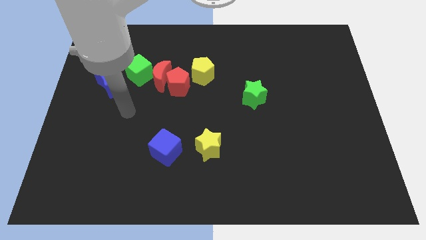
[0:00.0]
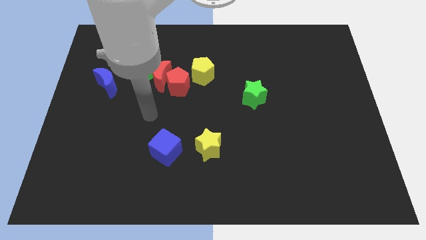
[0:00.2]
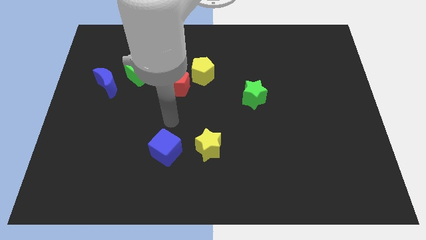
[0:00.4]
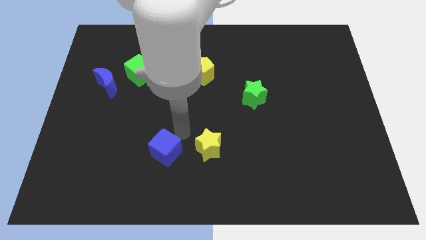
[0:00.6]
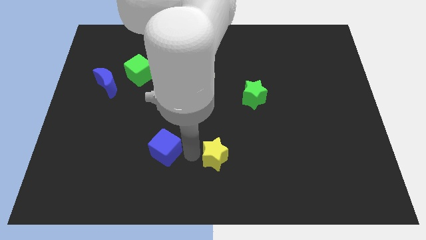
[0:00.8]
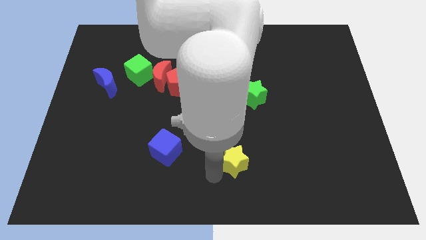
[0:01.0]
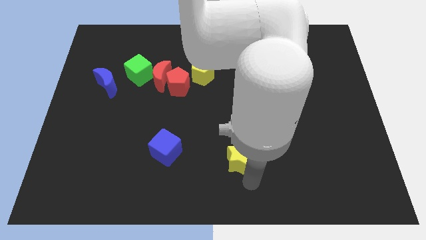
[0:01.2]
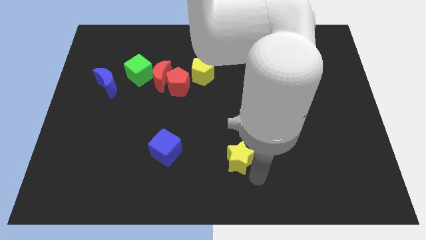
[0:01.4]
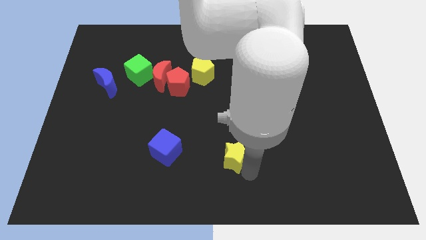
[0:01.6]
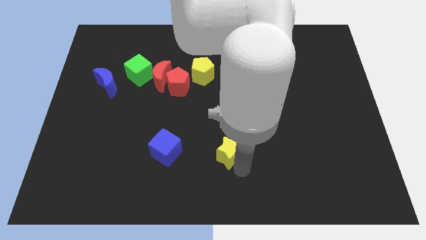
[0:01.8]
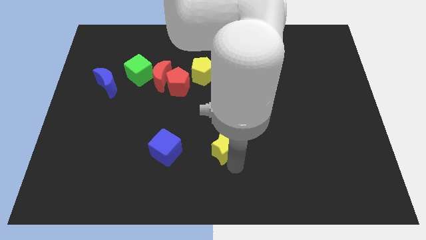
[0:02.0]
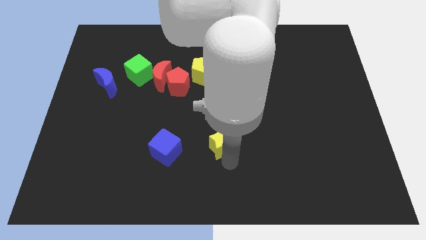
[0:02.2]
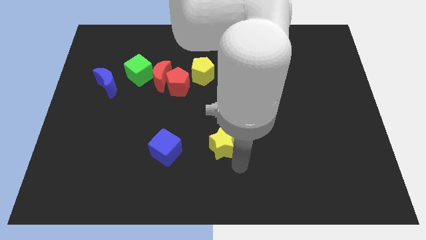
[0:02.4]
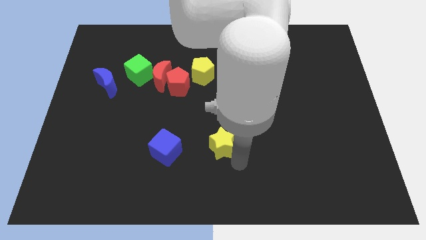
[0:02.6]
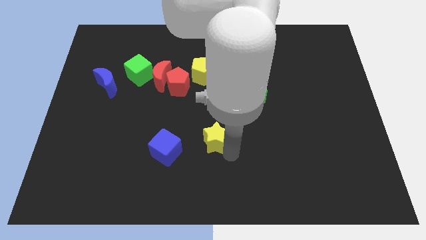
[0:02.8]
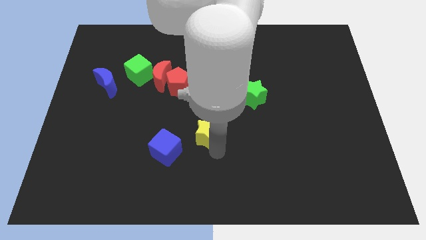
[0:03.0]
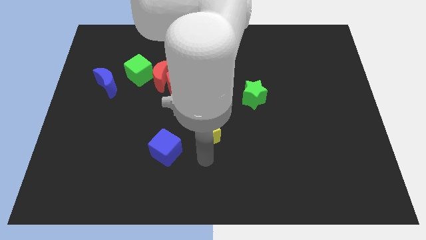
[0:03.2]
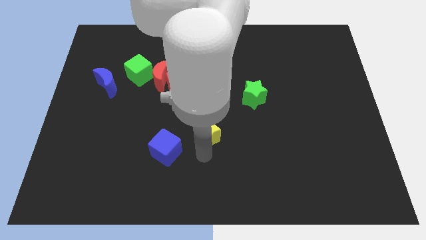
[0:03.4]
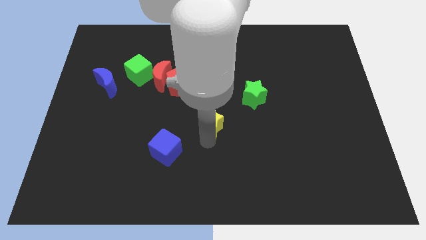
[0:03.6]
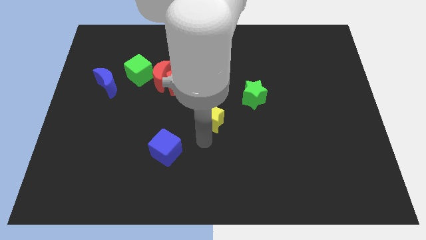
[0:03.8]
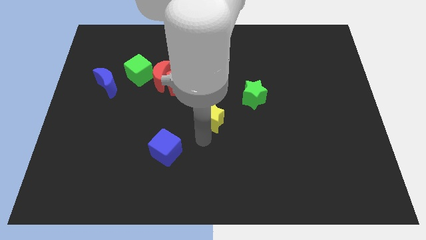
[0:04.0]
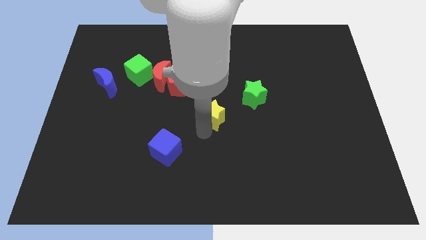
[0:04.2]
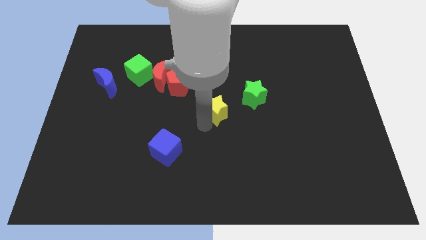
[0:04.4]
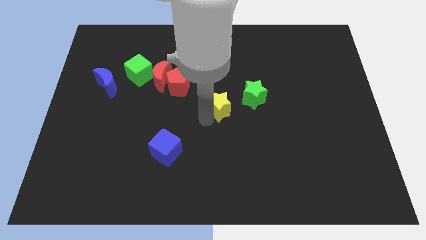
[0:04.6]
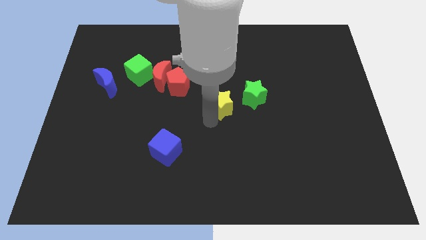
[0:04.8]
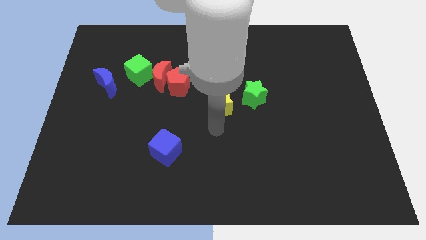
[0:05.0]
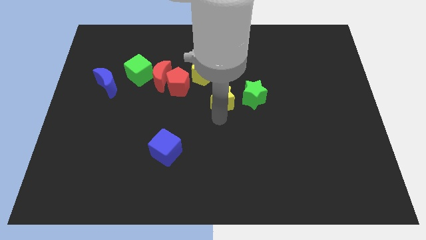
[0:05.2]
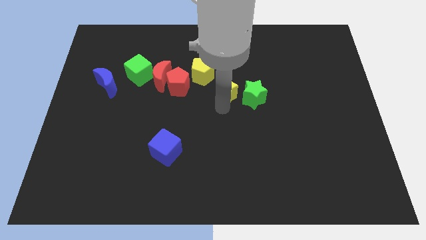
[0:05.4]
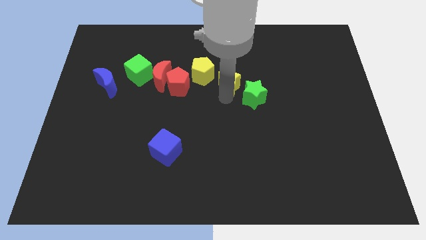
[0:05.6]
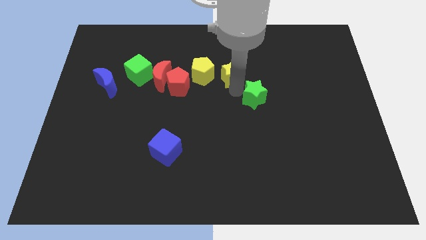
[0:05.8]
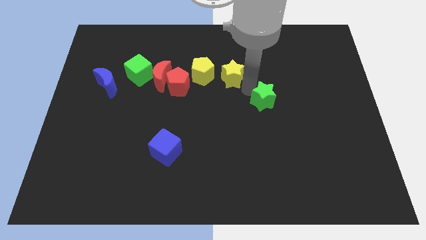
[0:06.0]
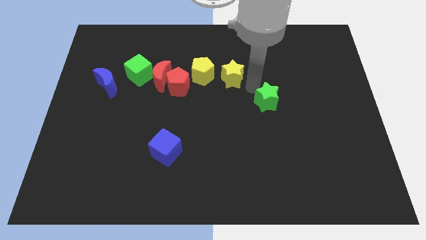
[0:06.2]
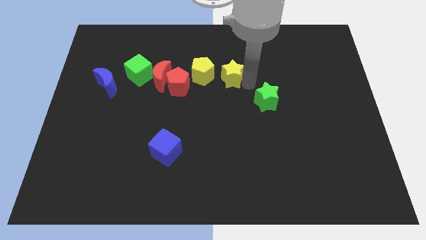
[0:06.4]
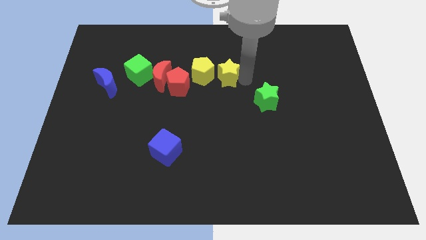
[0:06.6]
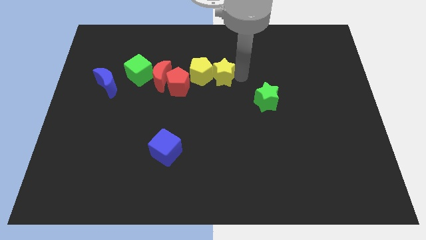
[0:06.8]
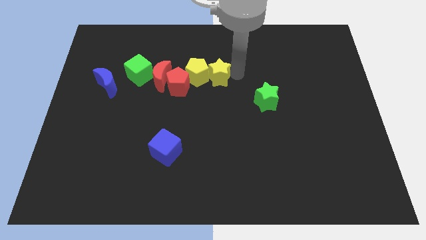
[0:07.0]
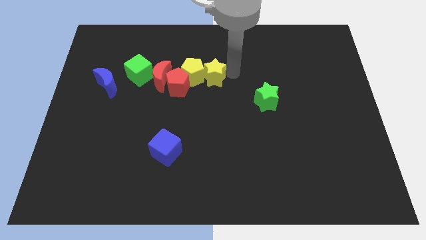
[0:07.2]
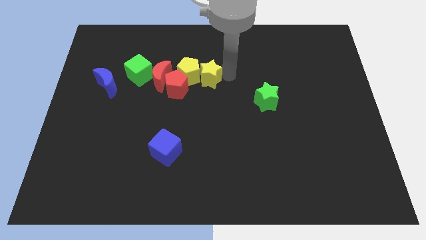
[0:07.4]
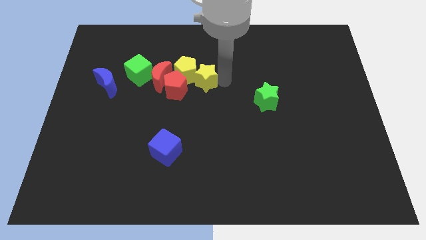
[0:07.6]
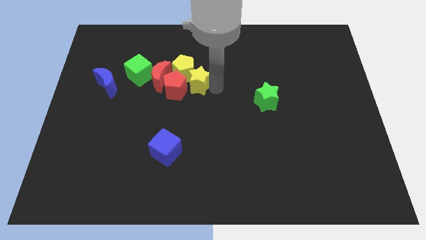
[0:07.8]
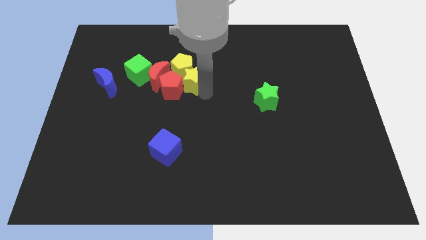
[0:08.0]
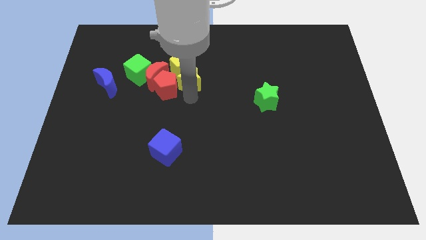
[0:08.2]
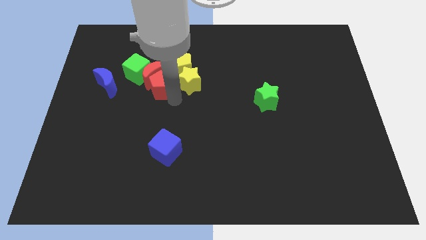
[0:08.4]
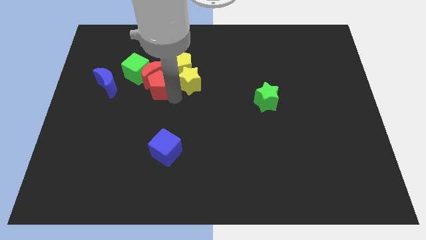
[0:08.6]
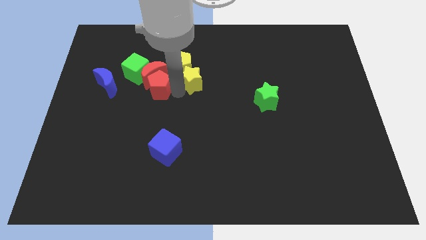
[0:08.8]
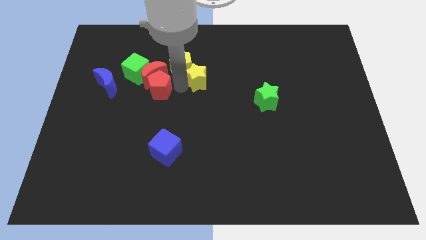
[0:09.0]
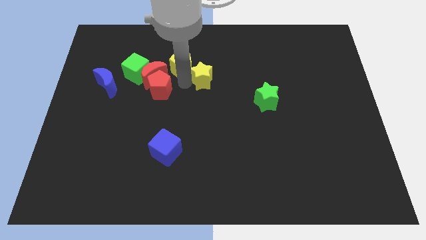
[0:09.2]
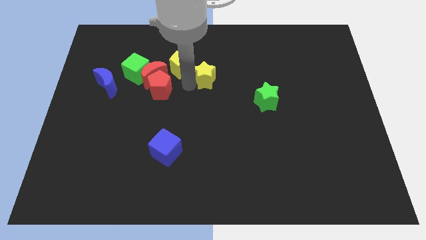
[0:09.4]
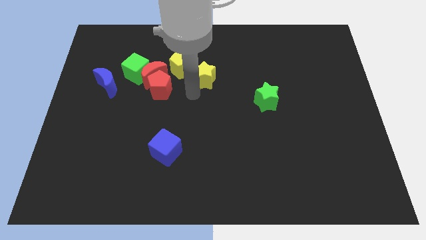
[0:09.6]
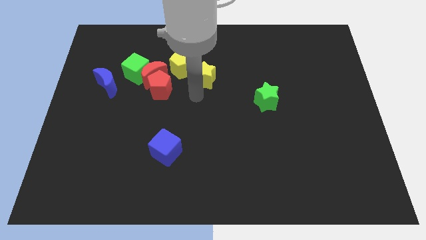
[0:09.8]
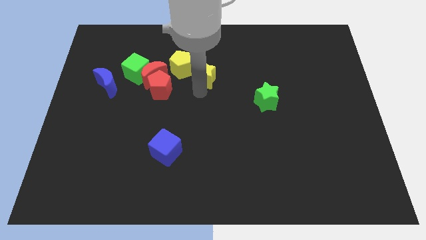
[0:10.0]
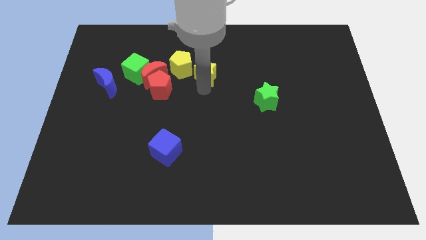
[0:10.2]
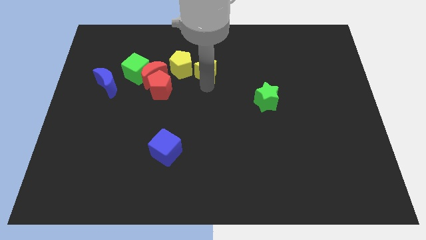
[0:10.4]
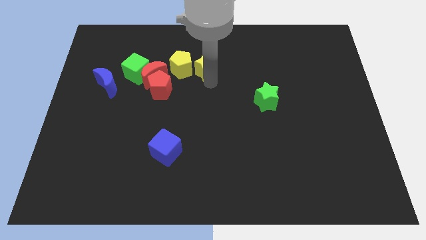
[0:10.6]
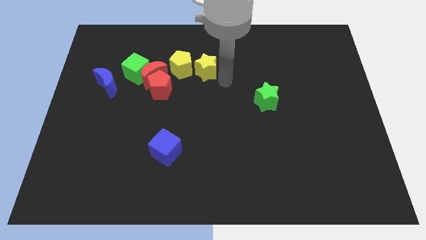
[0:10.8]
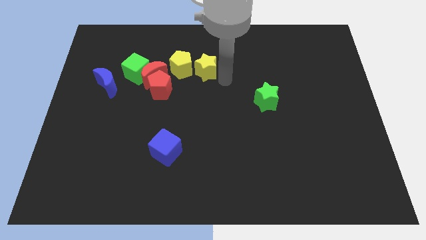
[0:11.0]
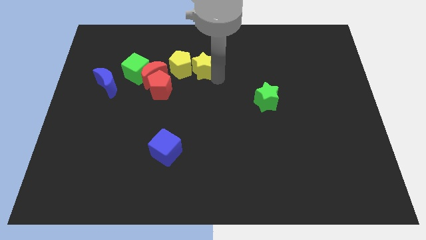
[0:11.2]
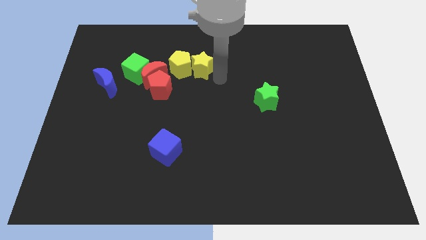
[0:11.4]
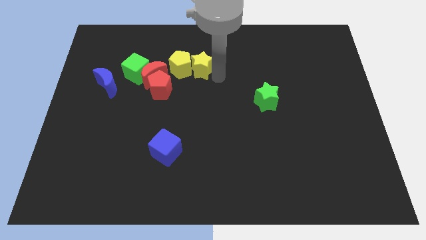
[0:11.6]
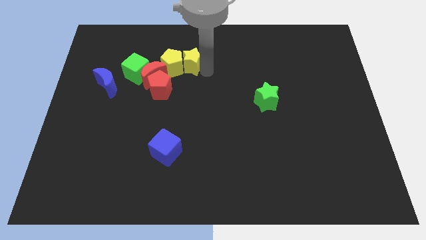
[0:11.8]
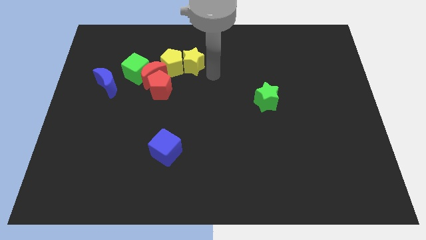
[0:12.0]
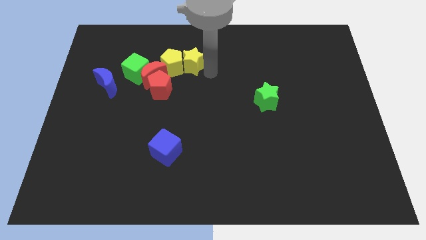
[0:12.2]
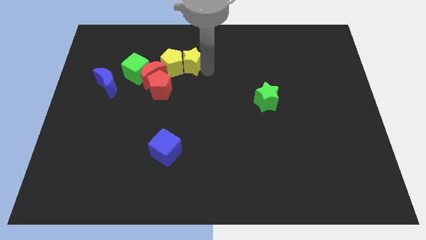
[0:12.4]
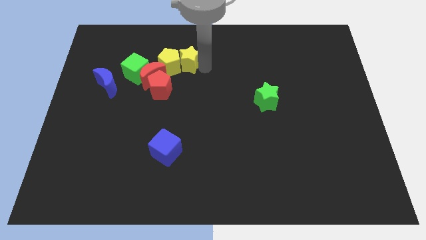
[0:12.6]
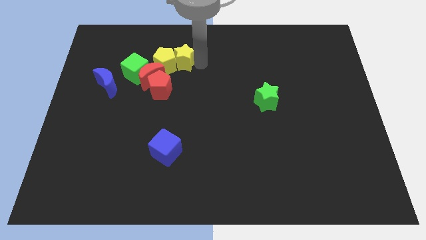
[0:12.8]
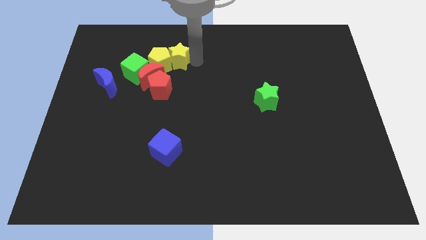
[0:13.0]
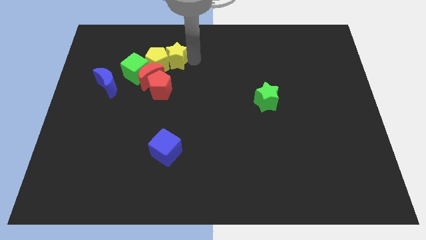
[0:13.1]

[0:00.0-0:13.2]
move the yellow star diagonally up and to the right of the green cube

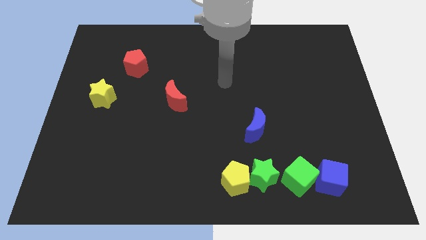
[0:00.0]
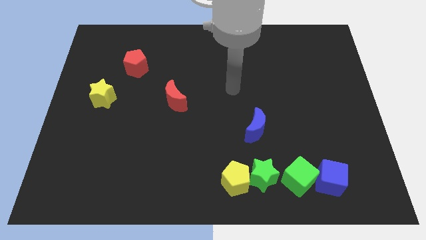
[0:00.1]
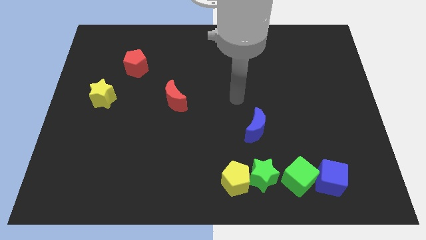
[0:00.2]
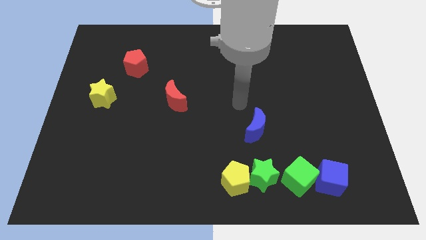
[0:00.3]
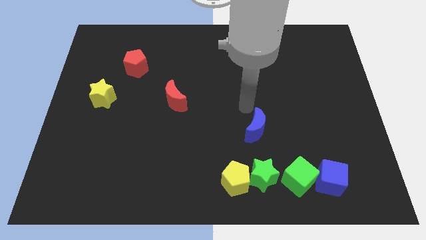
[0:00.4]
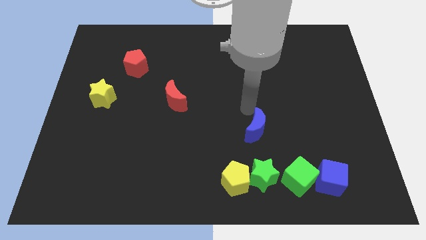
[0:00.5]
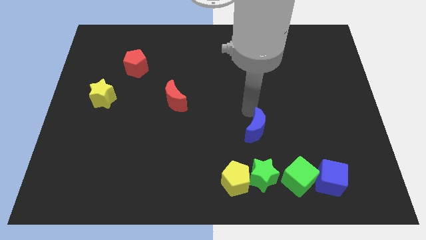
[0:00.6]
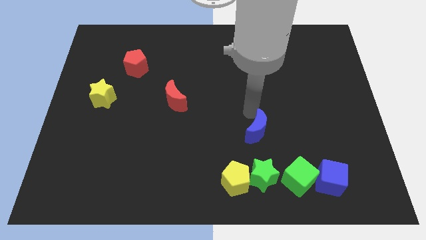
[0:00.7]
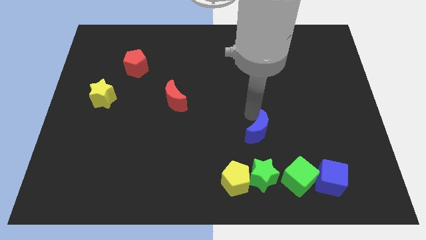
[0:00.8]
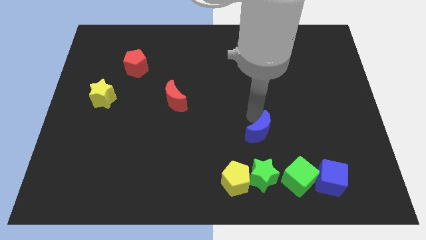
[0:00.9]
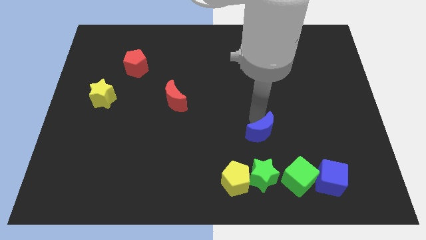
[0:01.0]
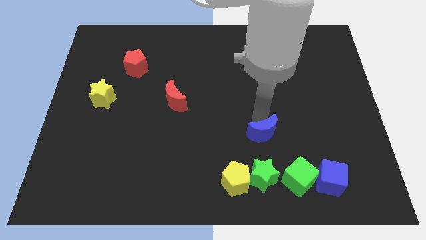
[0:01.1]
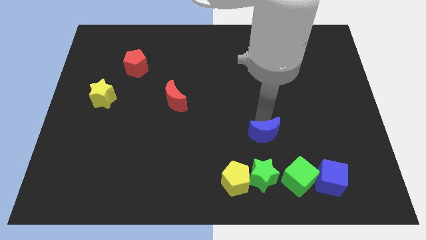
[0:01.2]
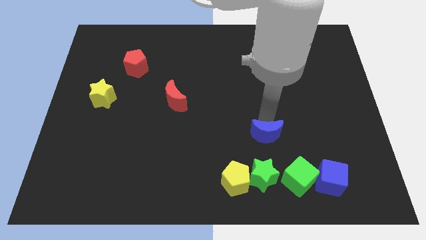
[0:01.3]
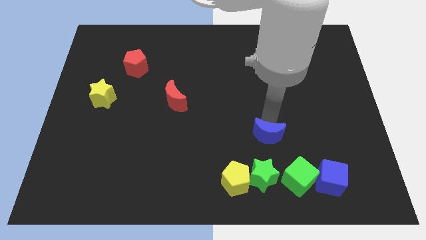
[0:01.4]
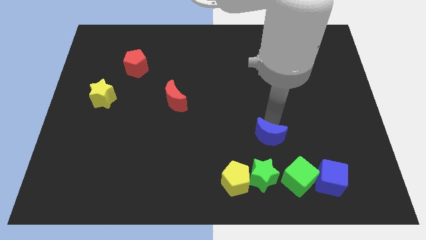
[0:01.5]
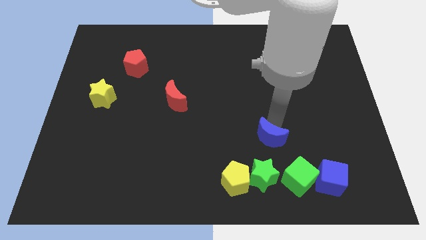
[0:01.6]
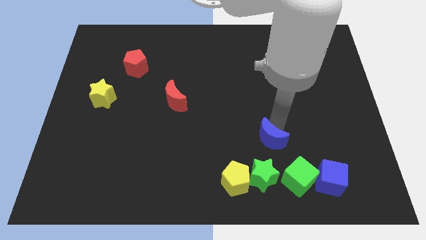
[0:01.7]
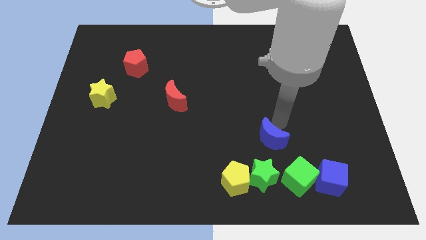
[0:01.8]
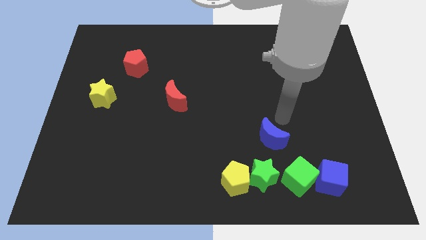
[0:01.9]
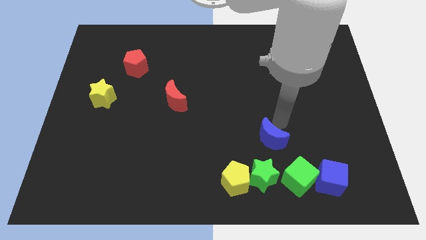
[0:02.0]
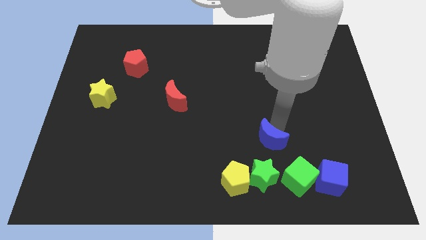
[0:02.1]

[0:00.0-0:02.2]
move the blue moon diagonally up and to the right of the yellow pentagon
